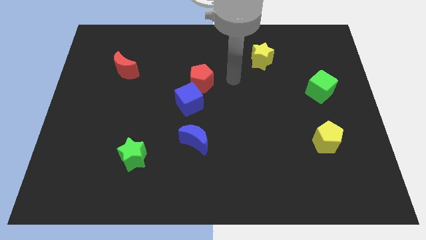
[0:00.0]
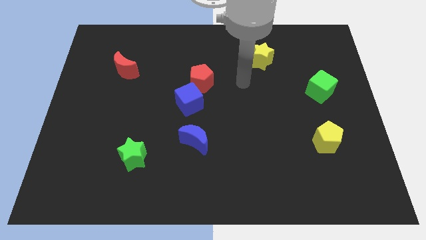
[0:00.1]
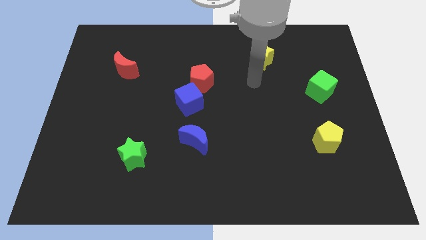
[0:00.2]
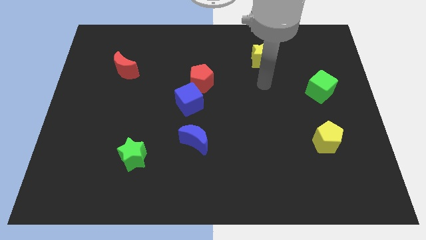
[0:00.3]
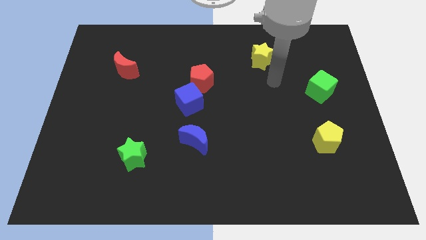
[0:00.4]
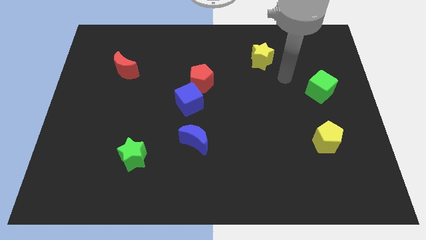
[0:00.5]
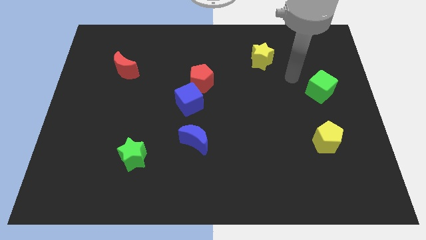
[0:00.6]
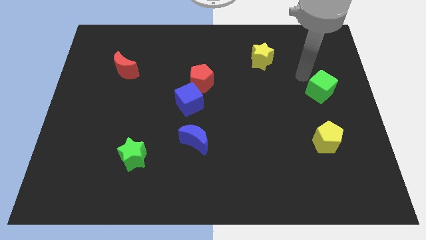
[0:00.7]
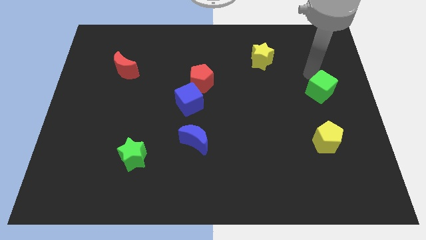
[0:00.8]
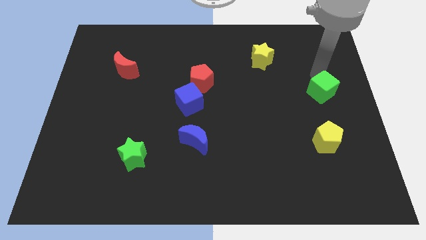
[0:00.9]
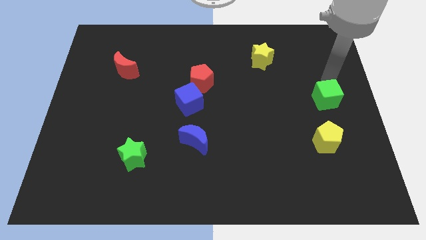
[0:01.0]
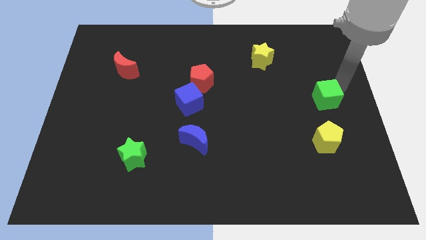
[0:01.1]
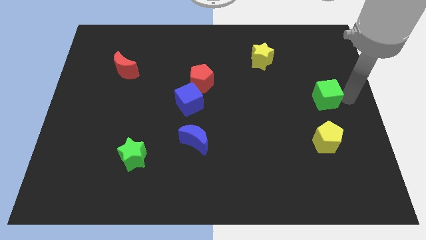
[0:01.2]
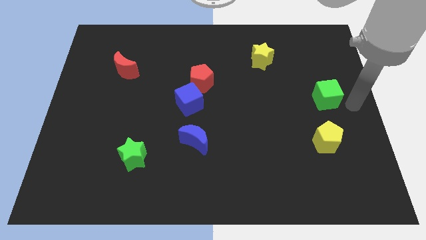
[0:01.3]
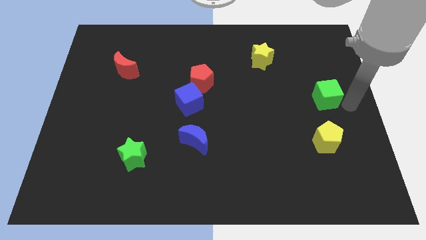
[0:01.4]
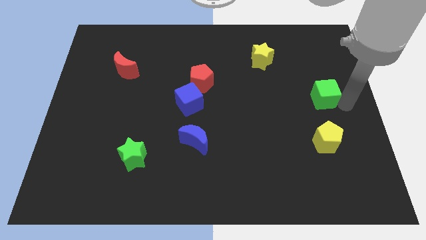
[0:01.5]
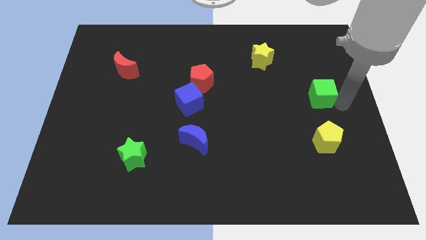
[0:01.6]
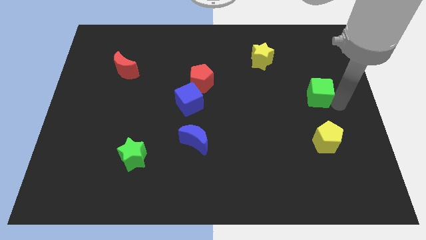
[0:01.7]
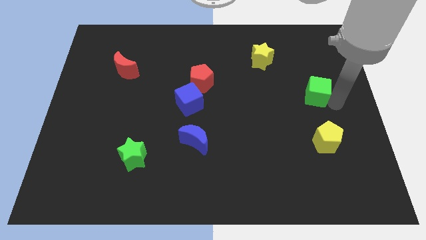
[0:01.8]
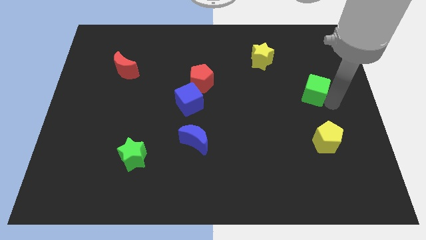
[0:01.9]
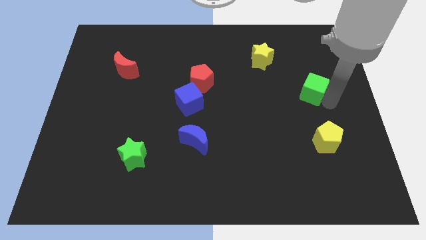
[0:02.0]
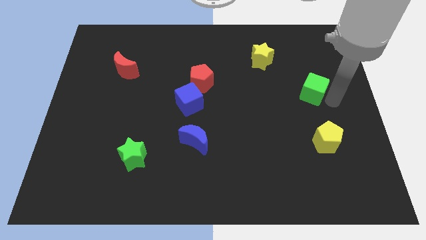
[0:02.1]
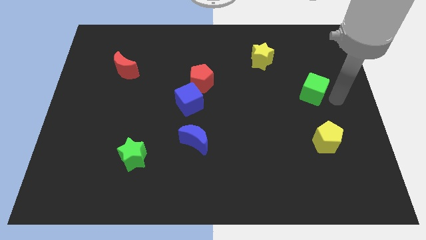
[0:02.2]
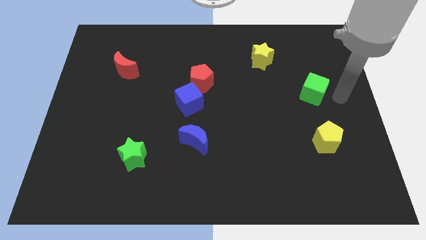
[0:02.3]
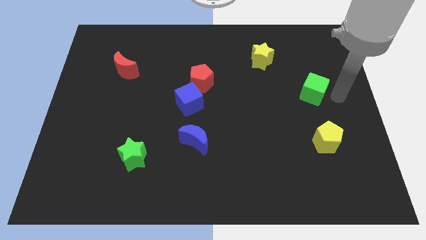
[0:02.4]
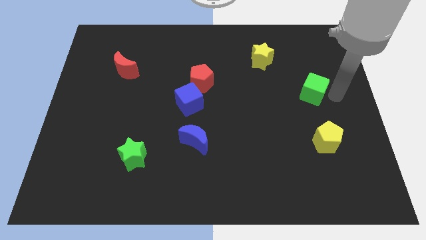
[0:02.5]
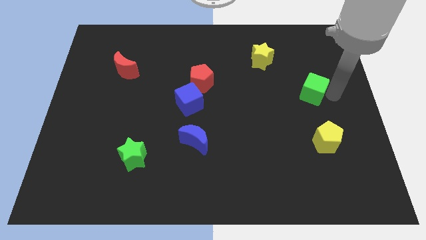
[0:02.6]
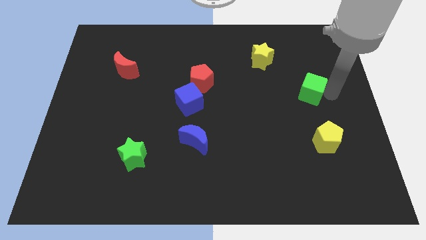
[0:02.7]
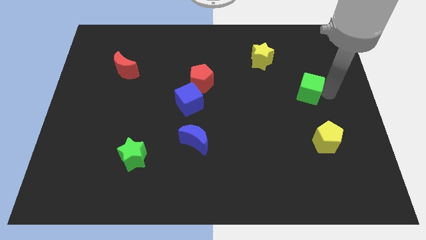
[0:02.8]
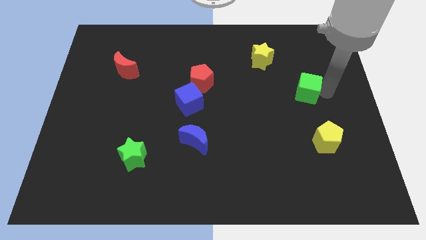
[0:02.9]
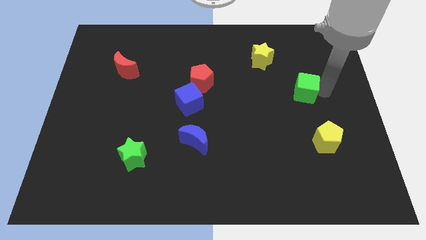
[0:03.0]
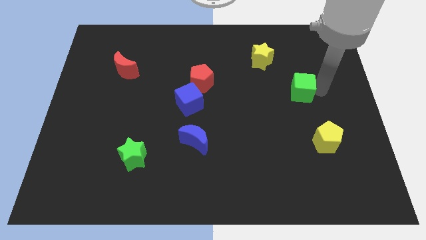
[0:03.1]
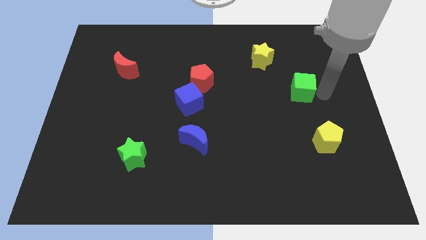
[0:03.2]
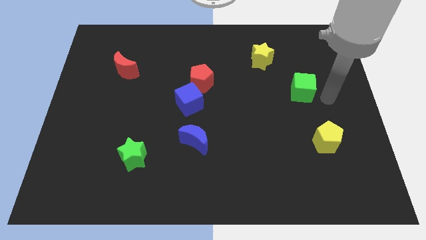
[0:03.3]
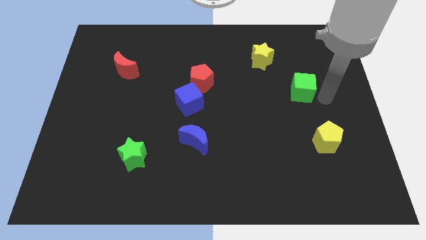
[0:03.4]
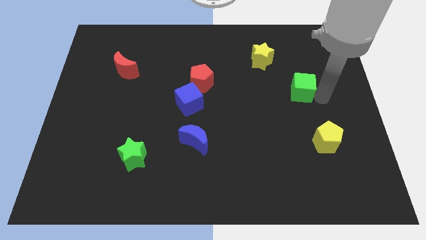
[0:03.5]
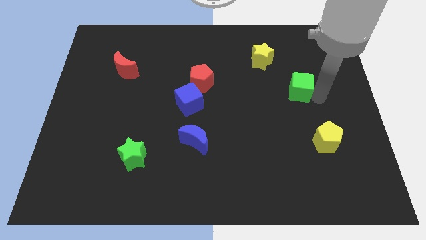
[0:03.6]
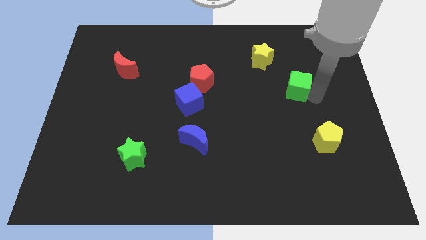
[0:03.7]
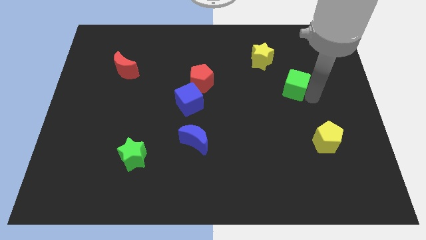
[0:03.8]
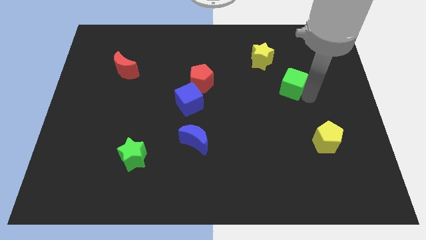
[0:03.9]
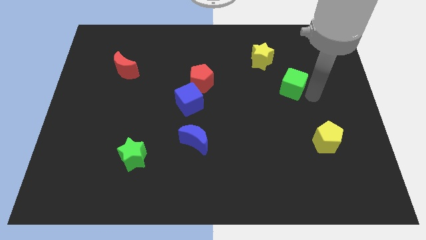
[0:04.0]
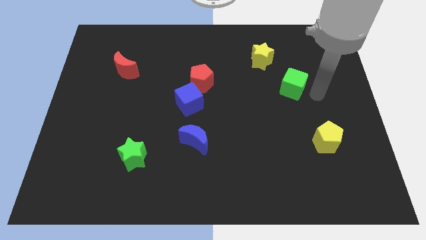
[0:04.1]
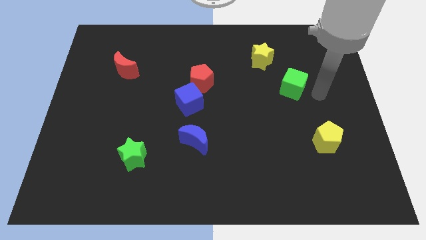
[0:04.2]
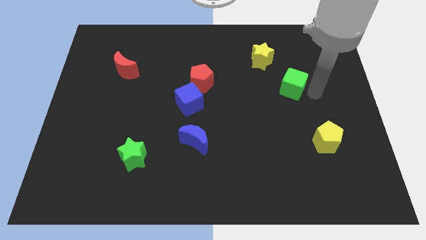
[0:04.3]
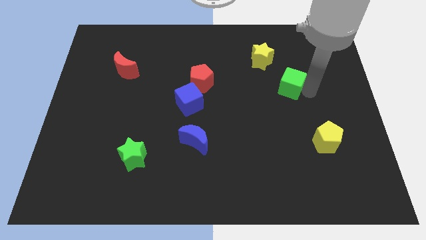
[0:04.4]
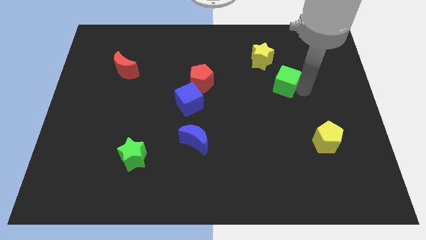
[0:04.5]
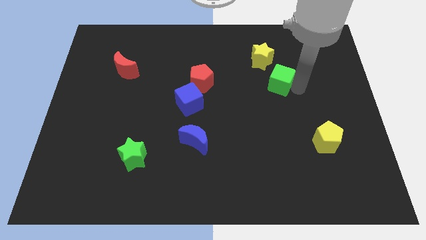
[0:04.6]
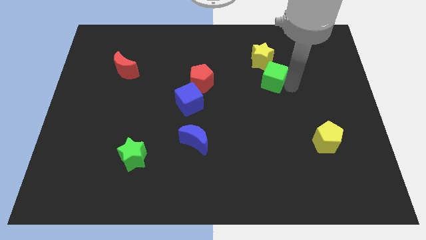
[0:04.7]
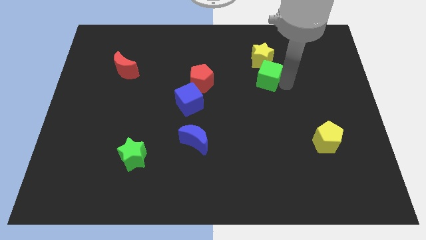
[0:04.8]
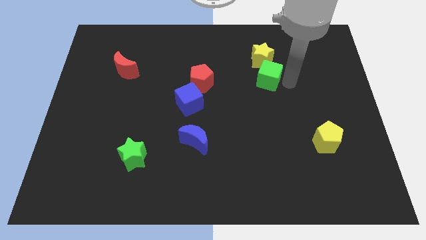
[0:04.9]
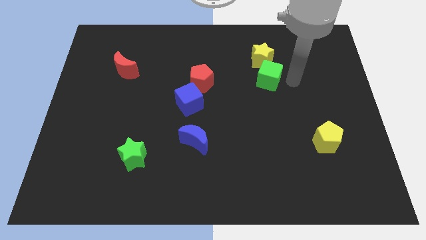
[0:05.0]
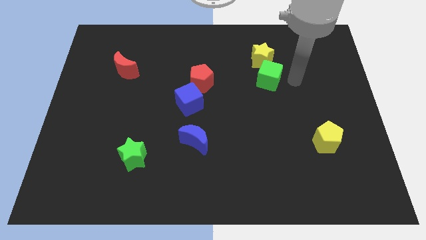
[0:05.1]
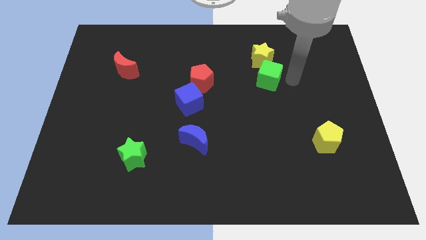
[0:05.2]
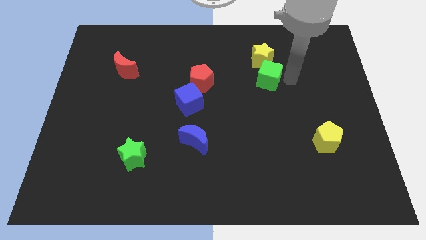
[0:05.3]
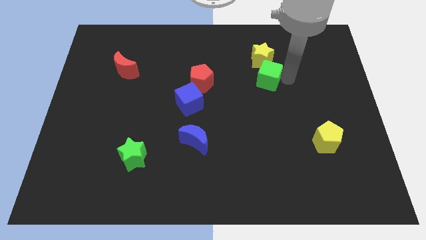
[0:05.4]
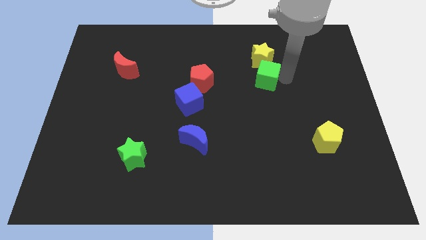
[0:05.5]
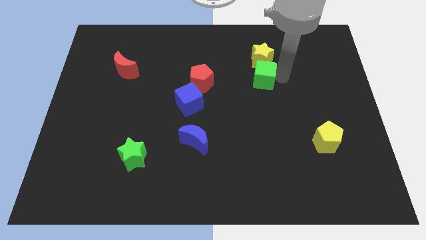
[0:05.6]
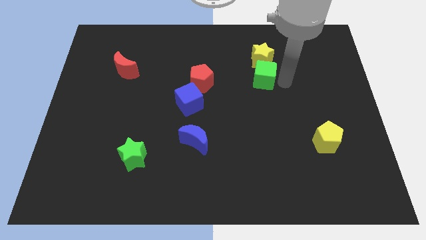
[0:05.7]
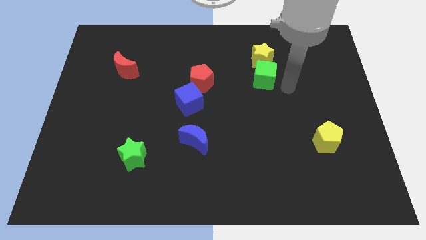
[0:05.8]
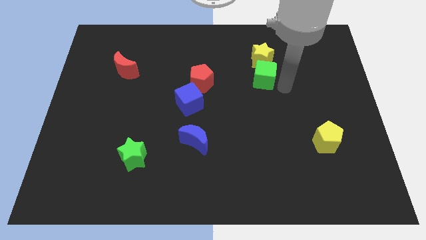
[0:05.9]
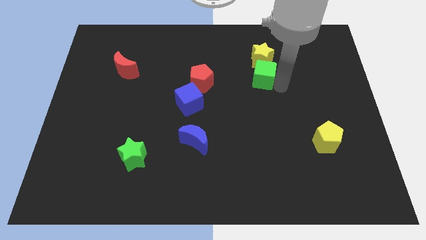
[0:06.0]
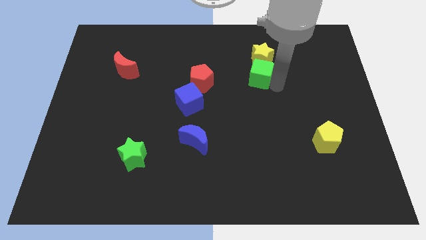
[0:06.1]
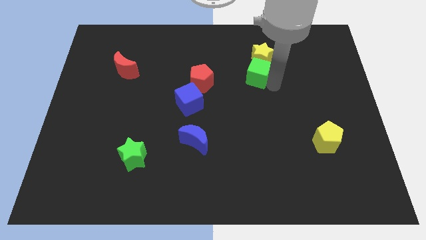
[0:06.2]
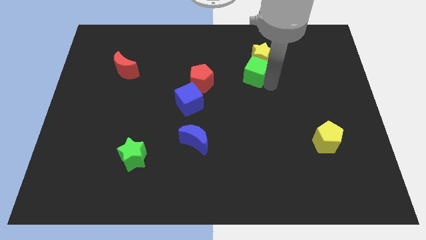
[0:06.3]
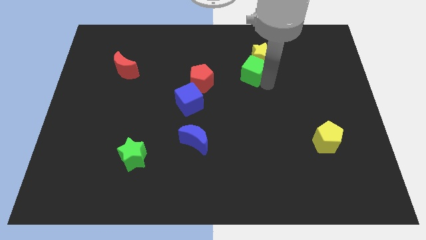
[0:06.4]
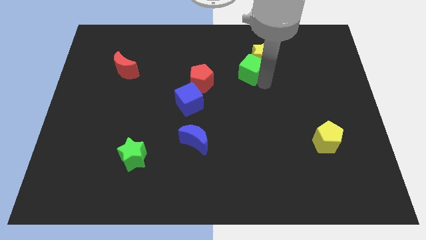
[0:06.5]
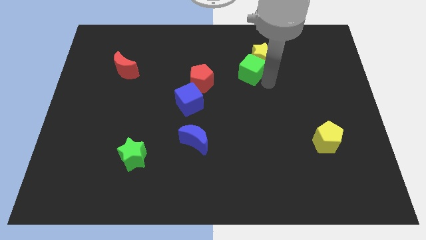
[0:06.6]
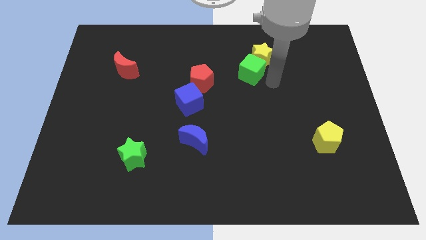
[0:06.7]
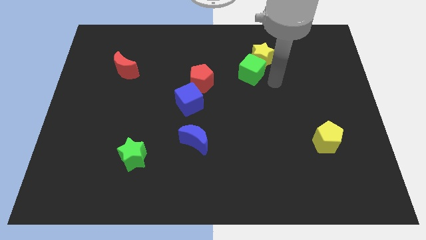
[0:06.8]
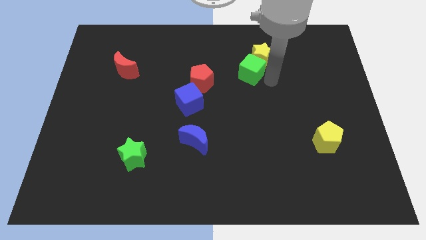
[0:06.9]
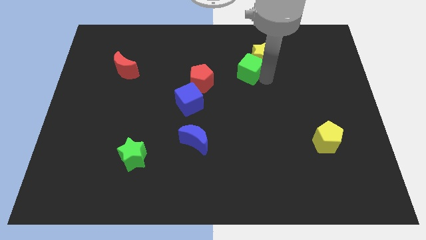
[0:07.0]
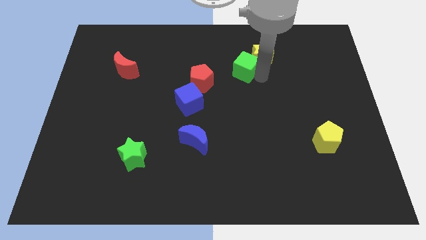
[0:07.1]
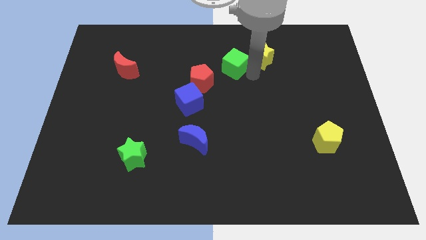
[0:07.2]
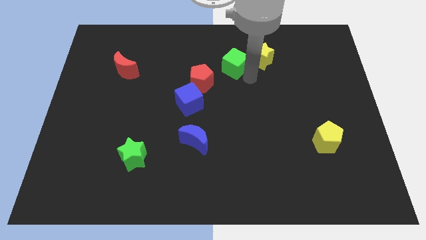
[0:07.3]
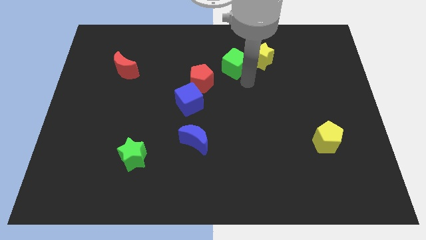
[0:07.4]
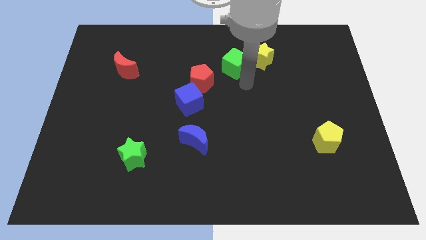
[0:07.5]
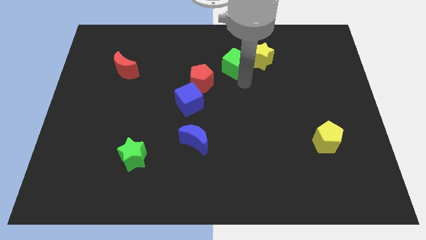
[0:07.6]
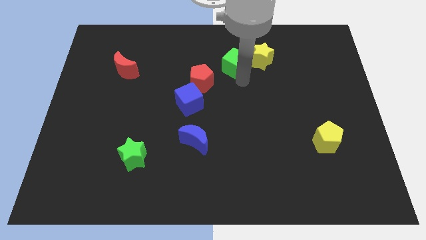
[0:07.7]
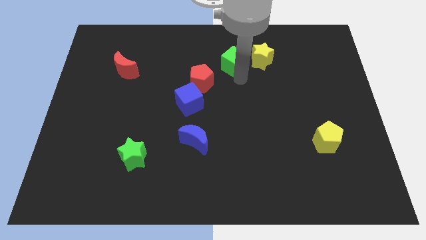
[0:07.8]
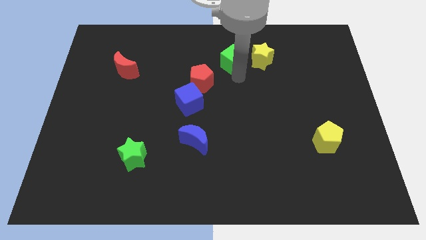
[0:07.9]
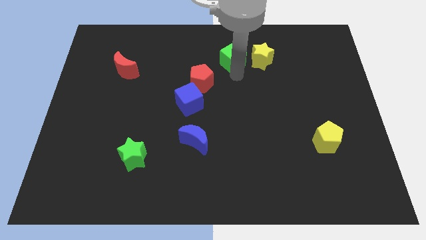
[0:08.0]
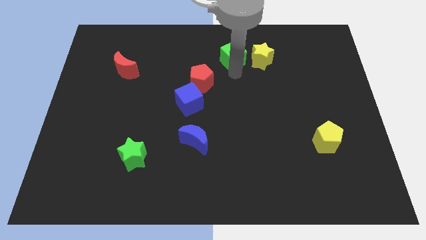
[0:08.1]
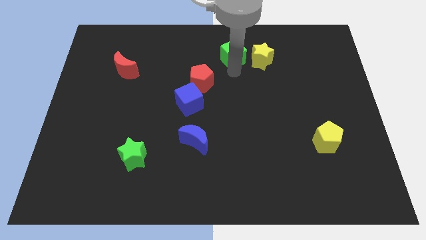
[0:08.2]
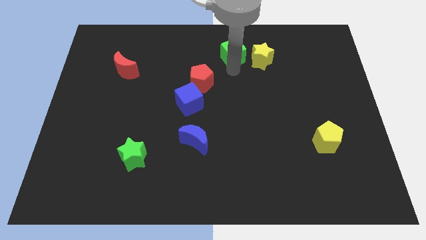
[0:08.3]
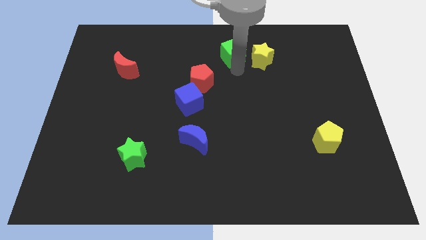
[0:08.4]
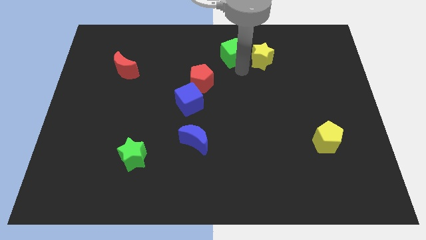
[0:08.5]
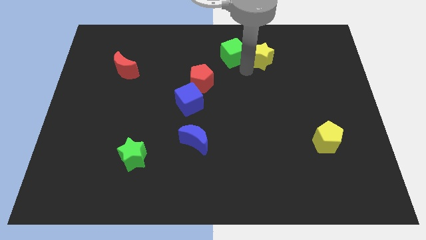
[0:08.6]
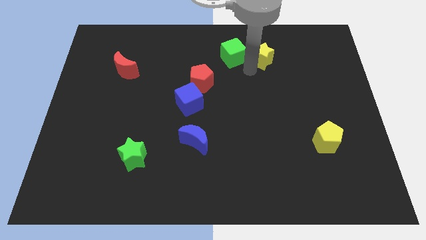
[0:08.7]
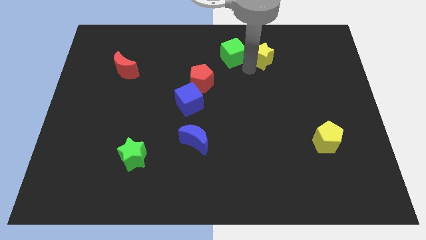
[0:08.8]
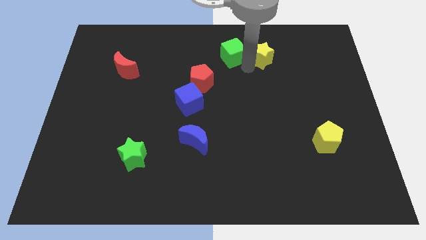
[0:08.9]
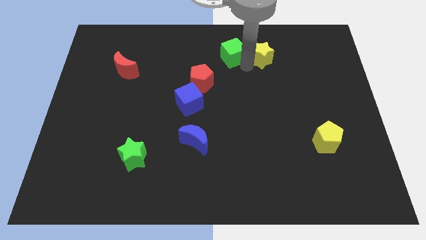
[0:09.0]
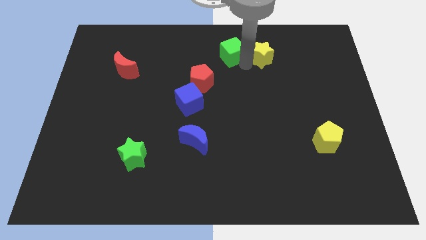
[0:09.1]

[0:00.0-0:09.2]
slide the green cube to the top side
